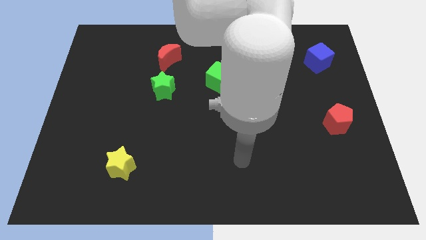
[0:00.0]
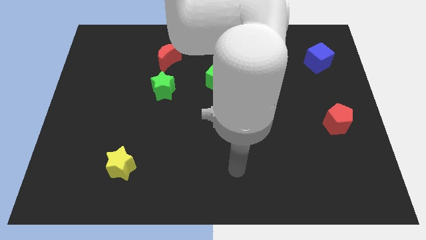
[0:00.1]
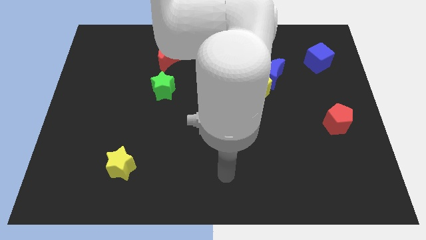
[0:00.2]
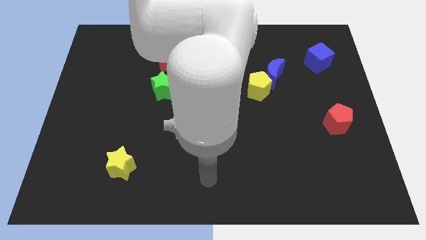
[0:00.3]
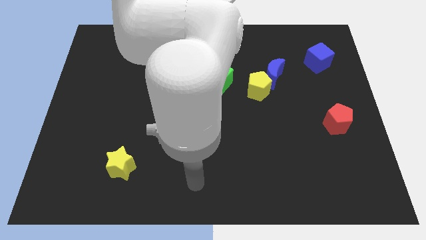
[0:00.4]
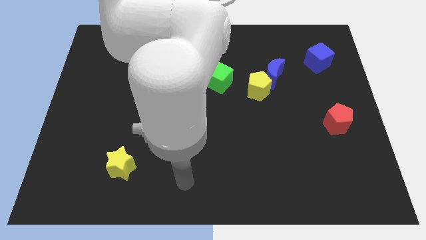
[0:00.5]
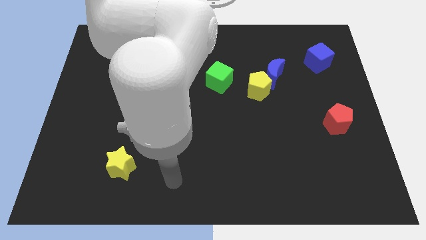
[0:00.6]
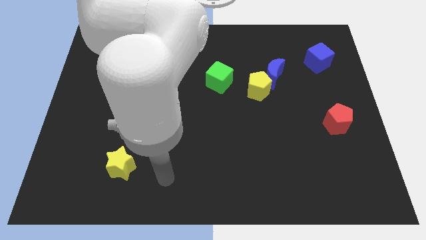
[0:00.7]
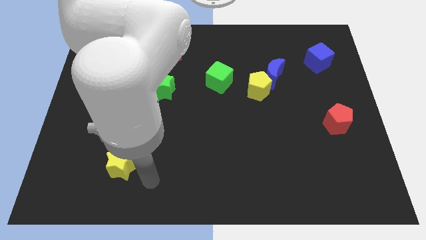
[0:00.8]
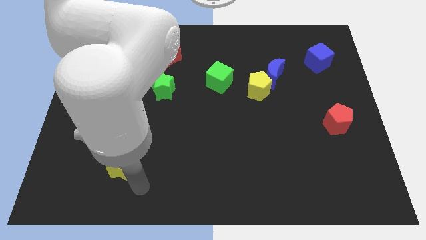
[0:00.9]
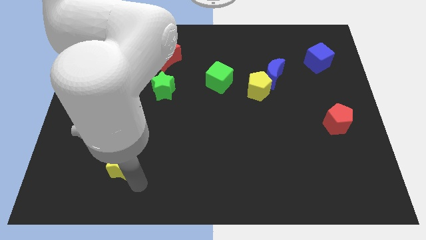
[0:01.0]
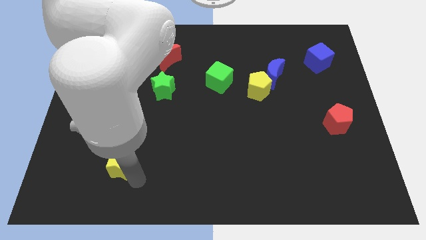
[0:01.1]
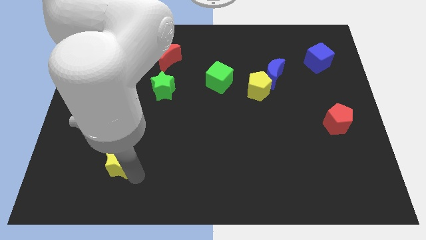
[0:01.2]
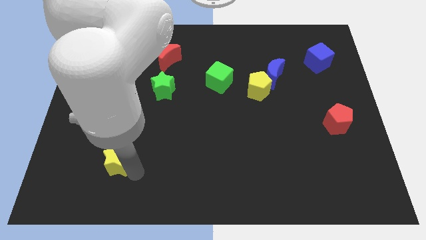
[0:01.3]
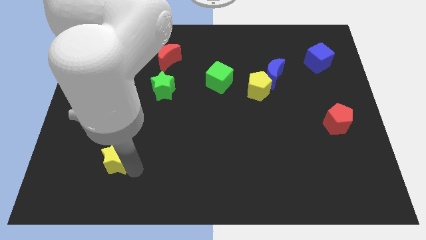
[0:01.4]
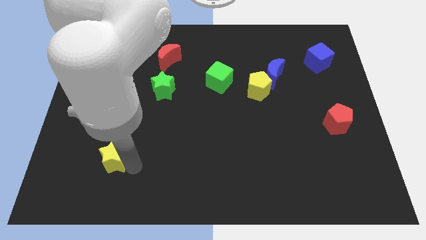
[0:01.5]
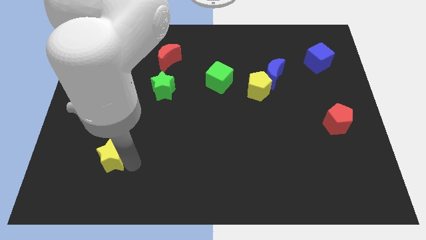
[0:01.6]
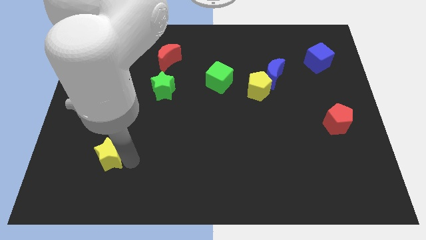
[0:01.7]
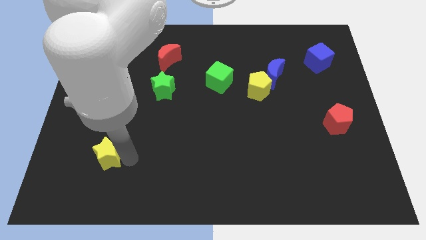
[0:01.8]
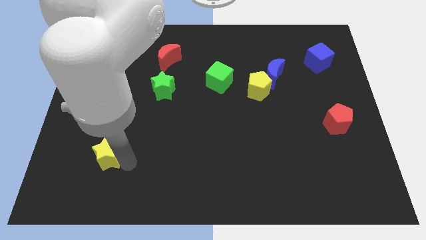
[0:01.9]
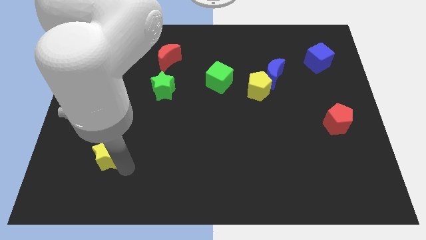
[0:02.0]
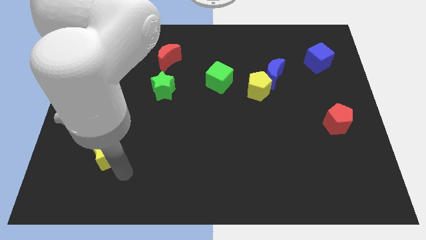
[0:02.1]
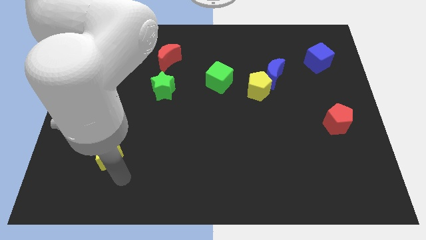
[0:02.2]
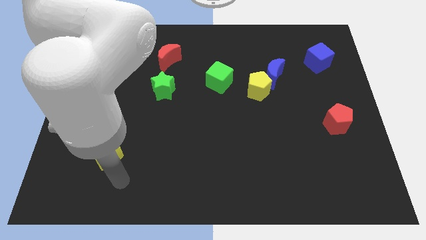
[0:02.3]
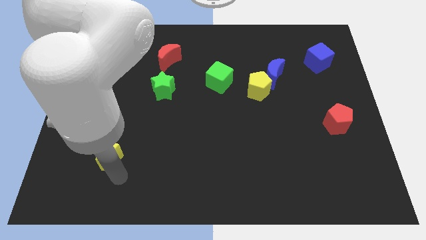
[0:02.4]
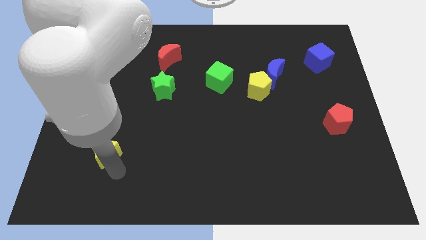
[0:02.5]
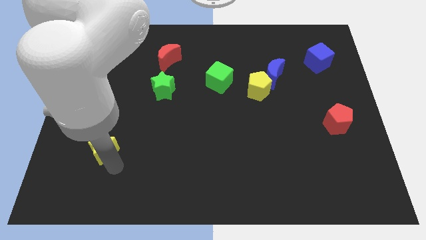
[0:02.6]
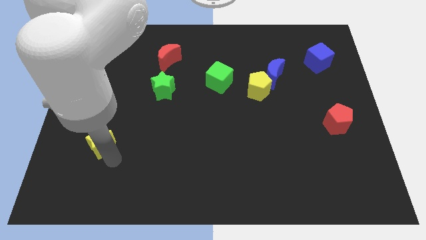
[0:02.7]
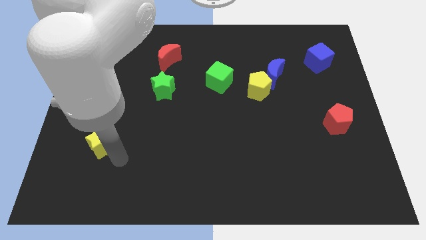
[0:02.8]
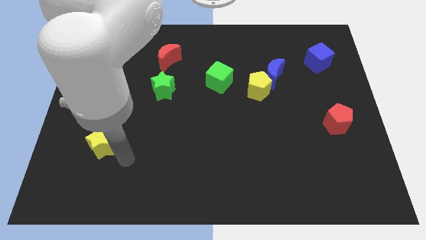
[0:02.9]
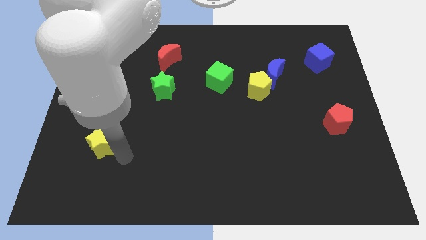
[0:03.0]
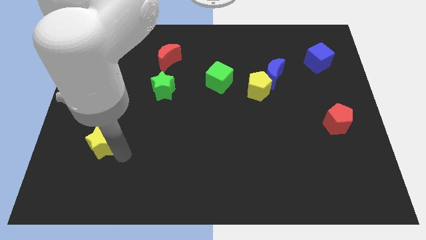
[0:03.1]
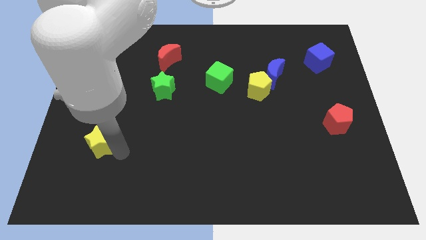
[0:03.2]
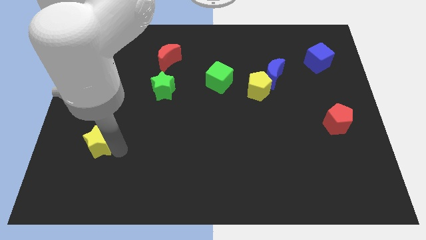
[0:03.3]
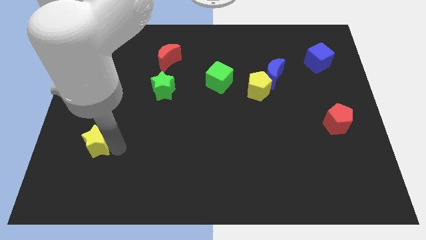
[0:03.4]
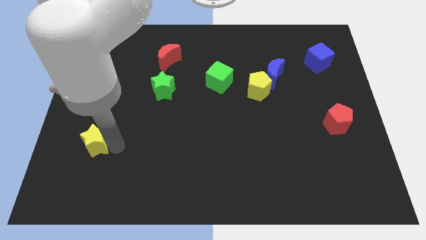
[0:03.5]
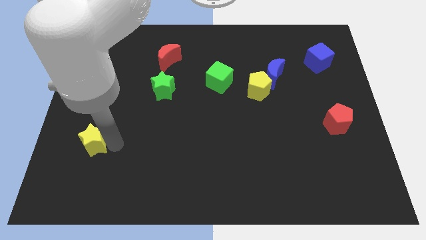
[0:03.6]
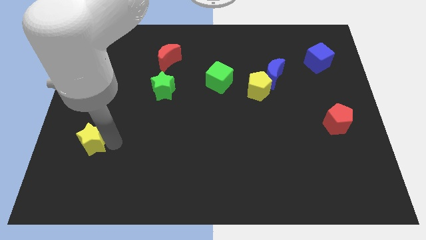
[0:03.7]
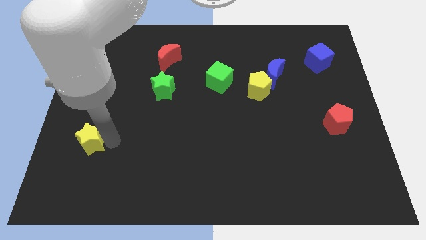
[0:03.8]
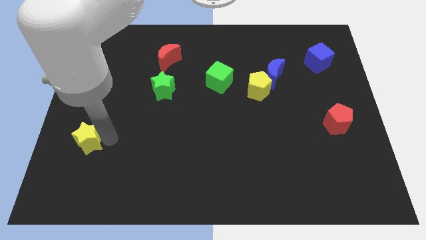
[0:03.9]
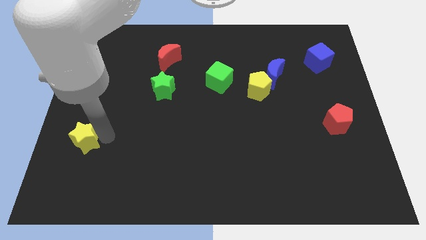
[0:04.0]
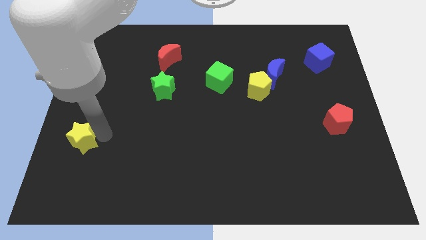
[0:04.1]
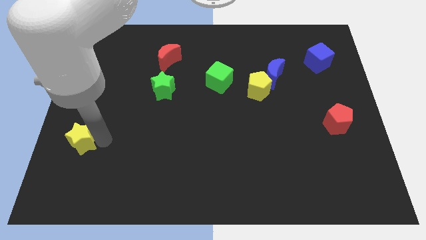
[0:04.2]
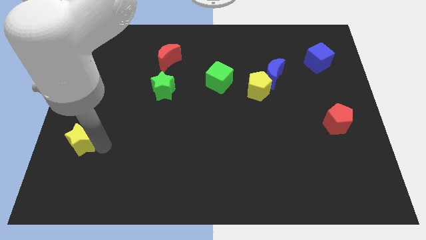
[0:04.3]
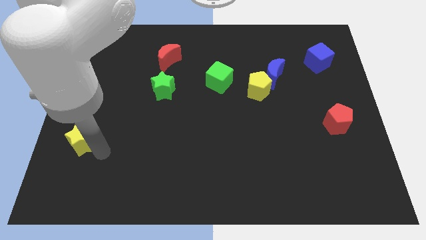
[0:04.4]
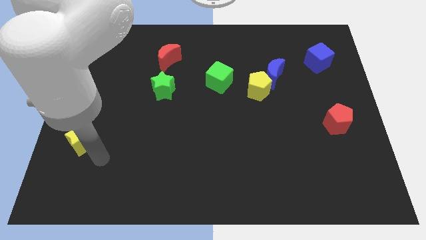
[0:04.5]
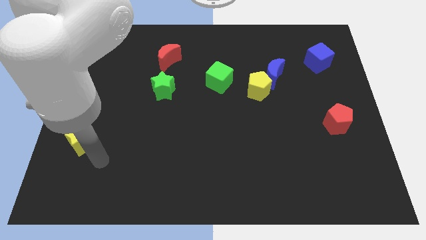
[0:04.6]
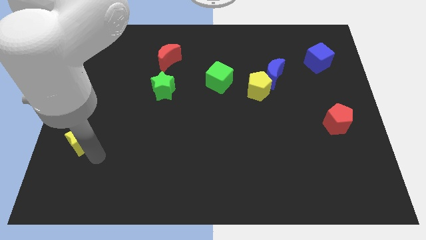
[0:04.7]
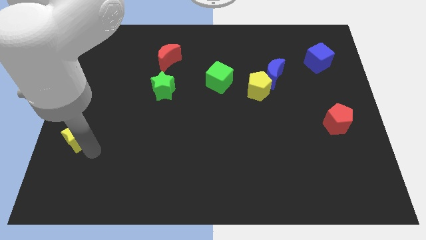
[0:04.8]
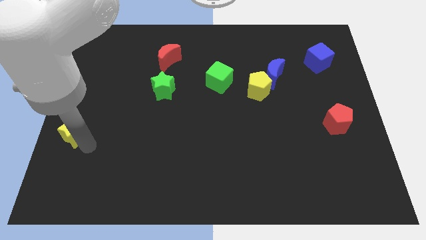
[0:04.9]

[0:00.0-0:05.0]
move the yellow star to the center left
